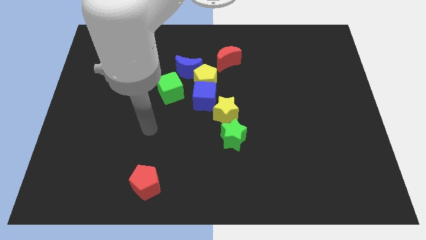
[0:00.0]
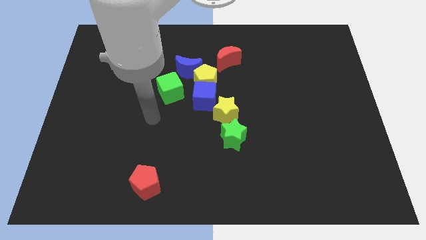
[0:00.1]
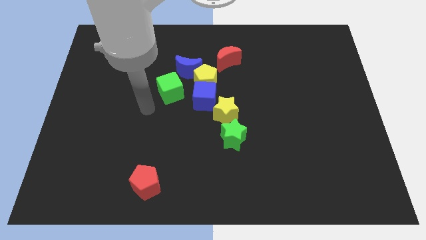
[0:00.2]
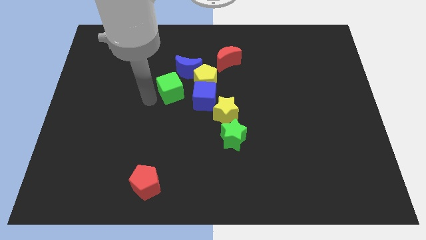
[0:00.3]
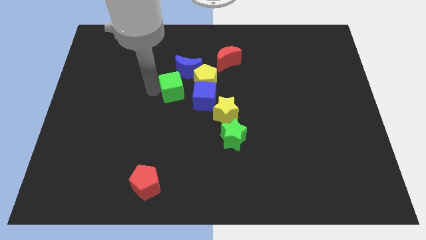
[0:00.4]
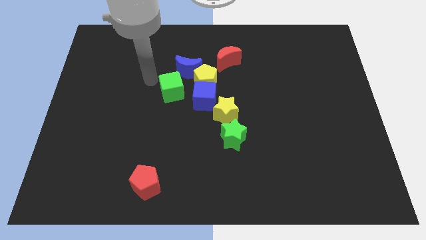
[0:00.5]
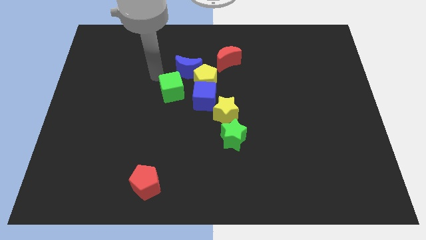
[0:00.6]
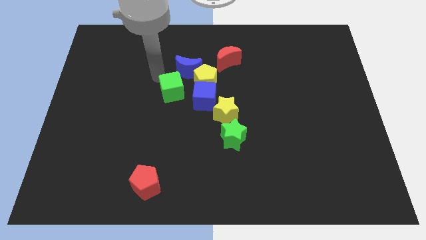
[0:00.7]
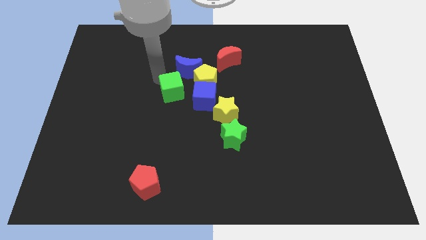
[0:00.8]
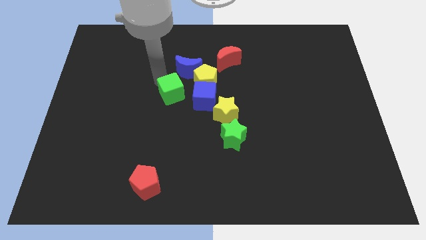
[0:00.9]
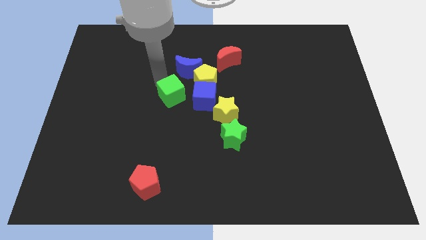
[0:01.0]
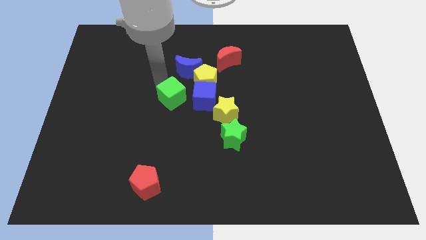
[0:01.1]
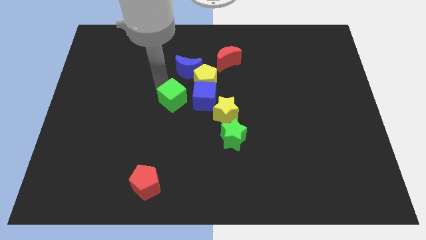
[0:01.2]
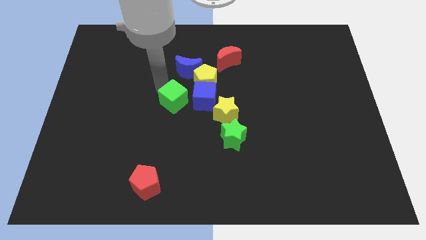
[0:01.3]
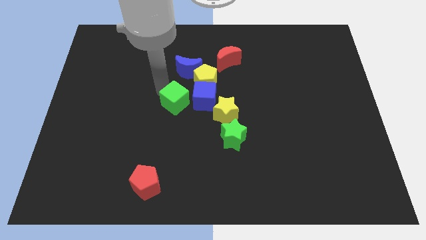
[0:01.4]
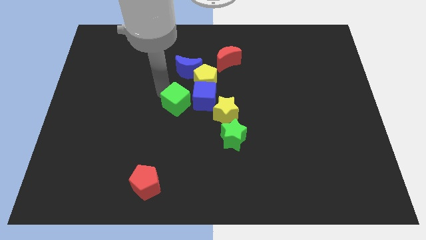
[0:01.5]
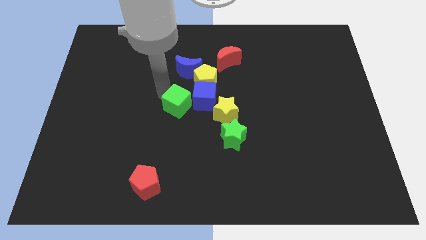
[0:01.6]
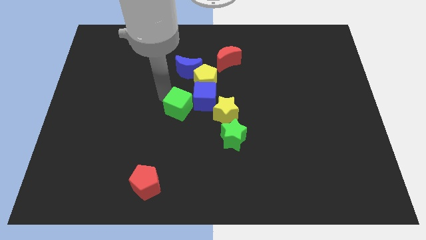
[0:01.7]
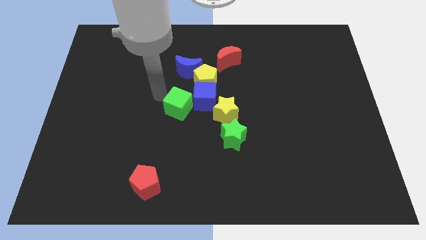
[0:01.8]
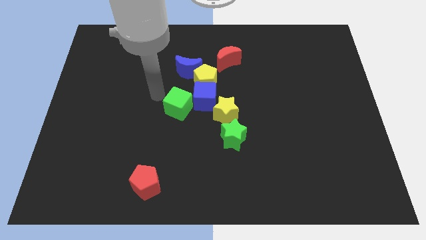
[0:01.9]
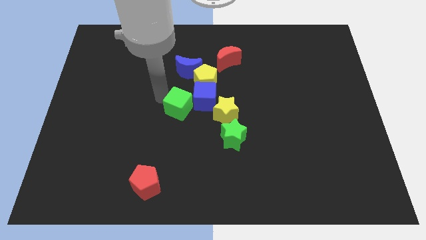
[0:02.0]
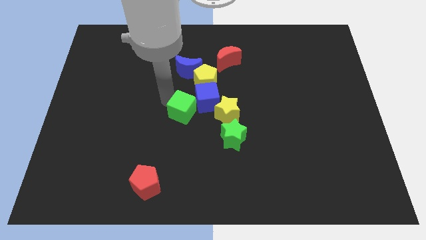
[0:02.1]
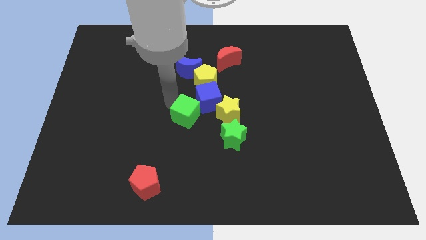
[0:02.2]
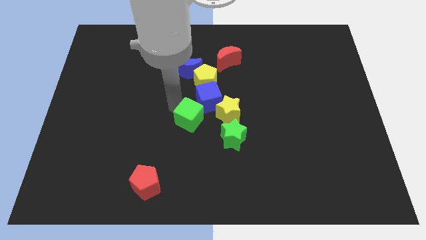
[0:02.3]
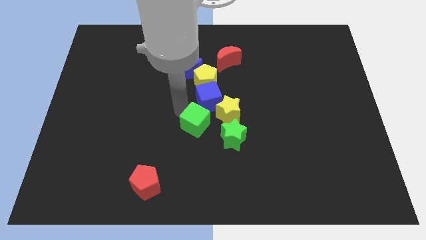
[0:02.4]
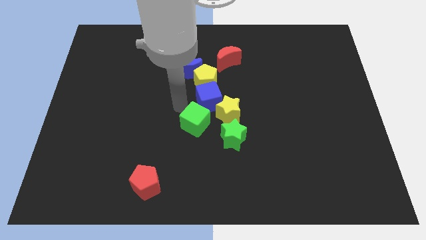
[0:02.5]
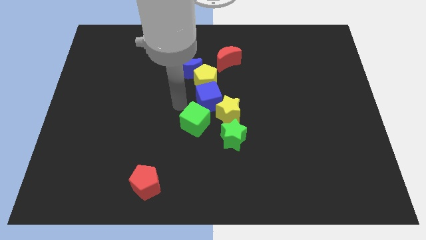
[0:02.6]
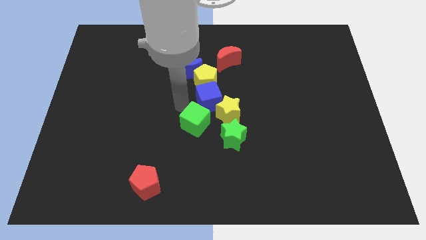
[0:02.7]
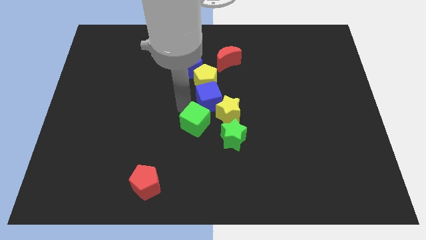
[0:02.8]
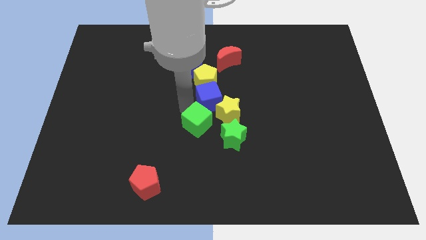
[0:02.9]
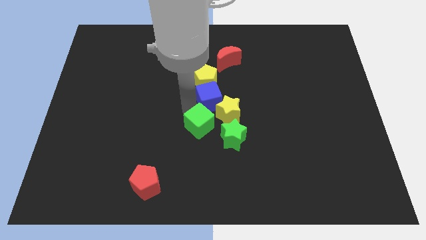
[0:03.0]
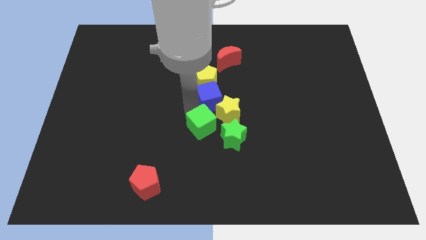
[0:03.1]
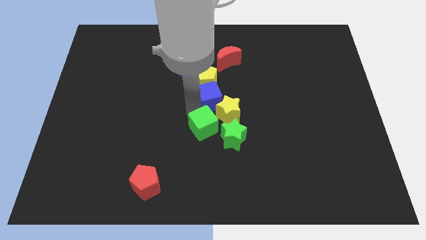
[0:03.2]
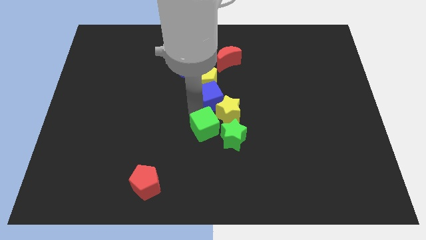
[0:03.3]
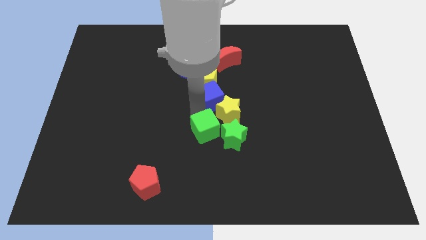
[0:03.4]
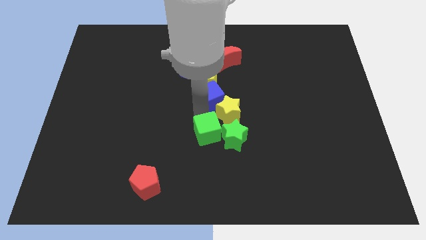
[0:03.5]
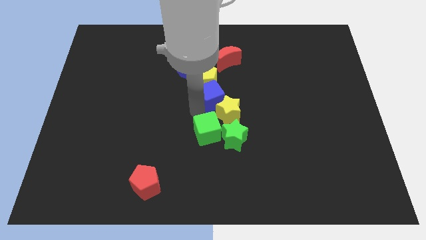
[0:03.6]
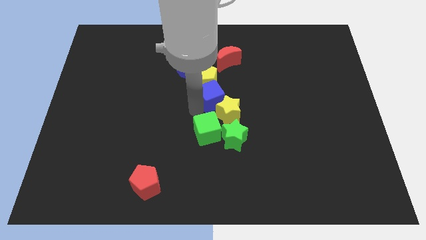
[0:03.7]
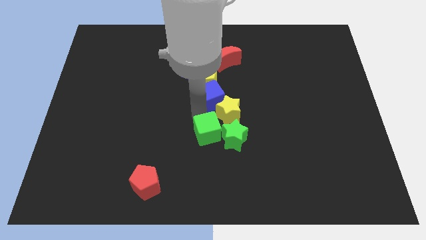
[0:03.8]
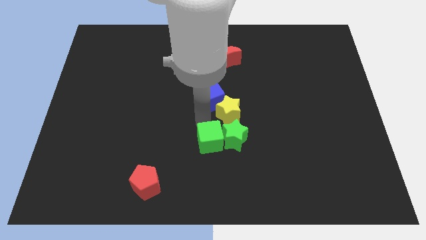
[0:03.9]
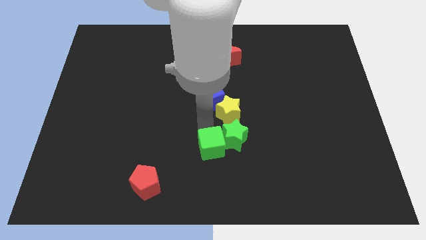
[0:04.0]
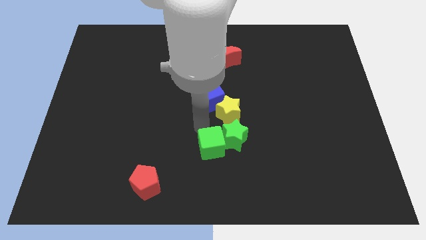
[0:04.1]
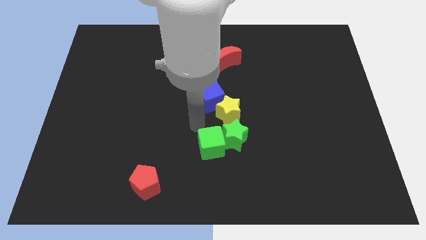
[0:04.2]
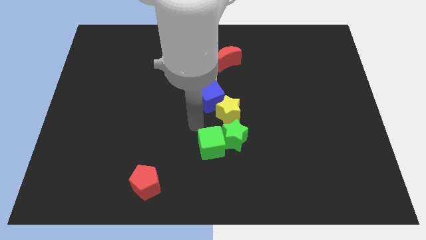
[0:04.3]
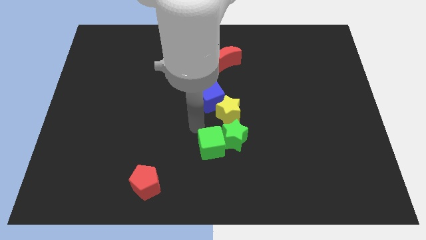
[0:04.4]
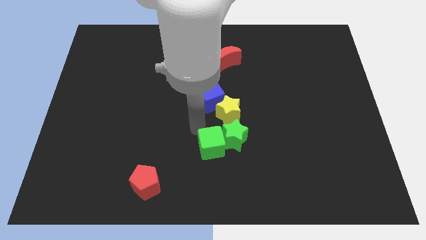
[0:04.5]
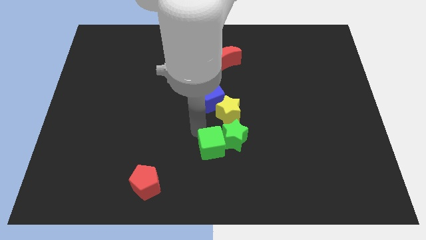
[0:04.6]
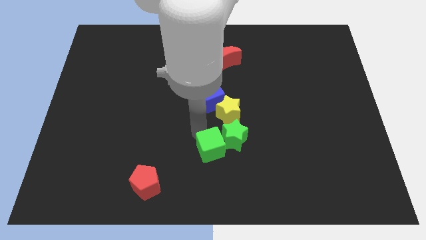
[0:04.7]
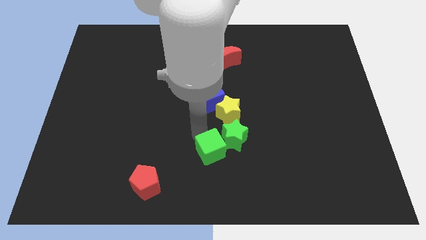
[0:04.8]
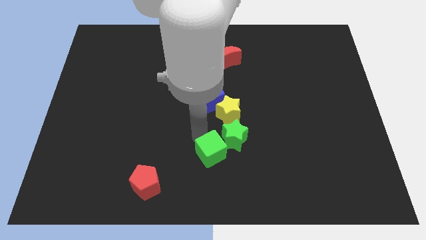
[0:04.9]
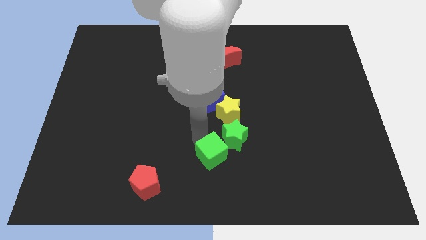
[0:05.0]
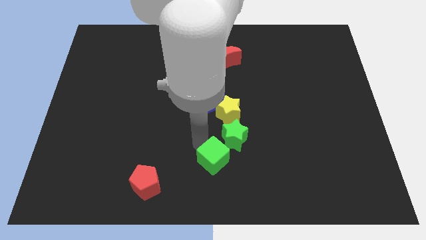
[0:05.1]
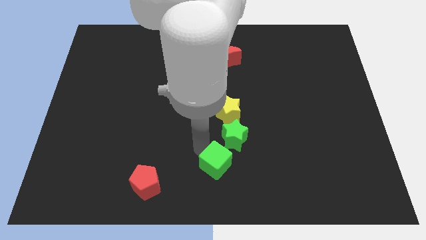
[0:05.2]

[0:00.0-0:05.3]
move the green cube downwards and then to the right

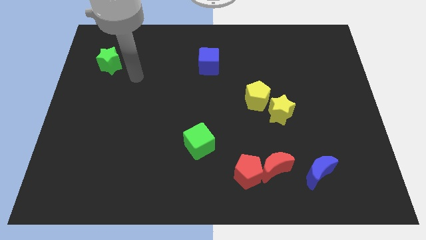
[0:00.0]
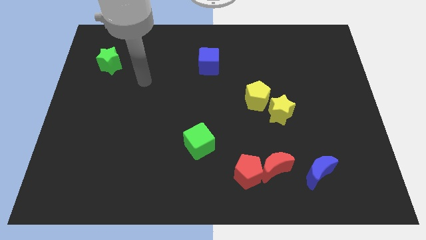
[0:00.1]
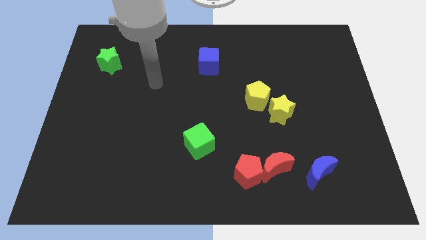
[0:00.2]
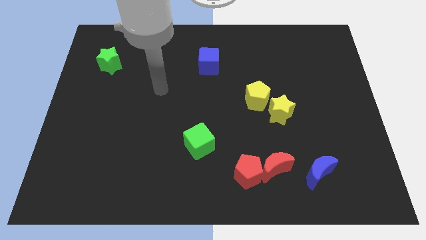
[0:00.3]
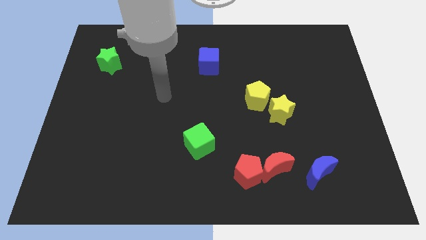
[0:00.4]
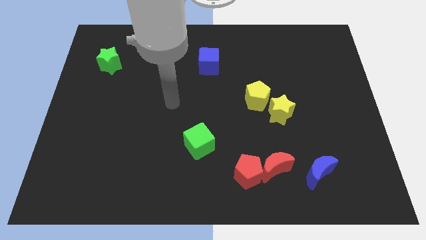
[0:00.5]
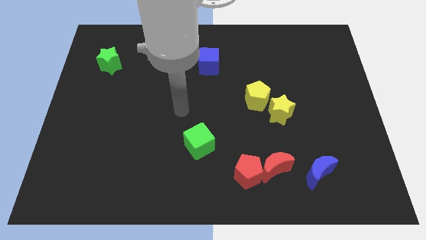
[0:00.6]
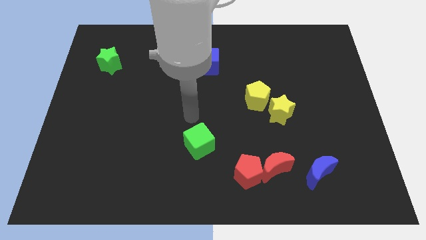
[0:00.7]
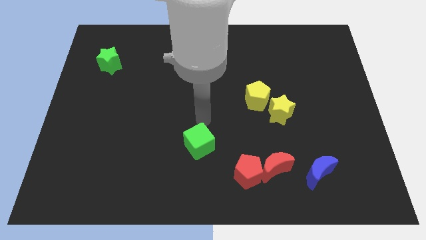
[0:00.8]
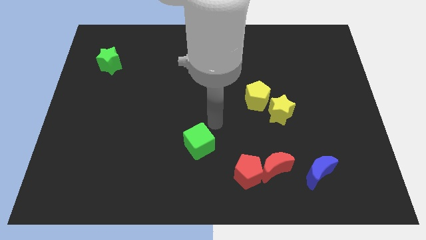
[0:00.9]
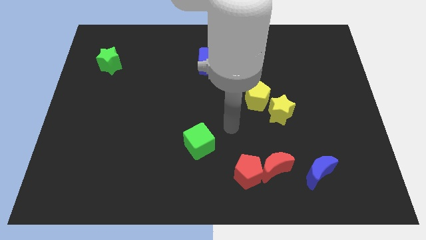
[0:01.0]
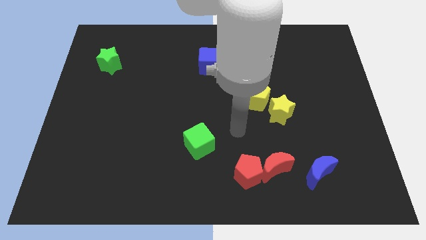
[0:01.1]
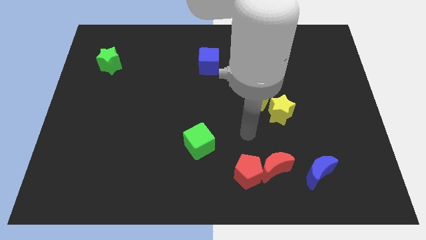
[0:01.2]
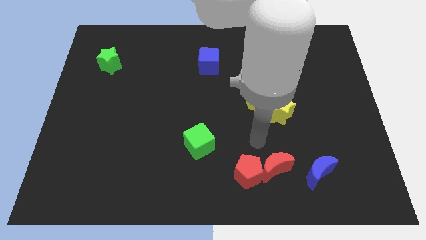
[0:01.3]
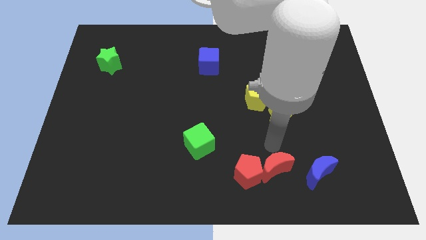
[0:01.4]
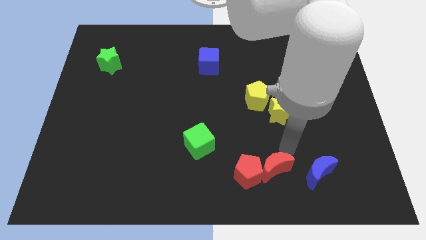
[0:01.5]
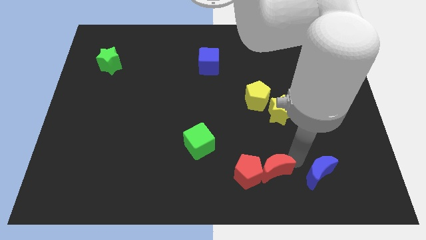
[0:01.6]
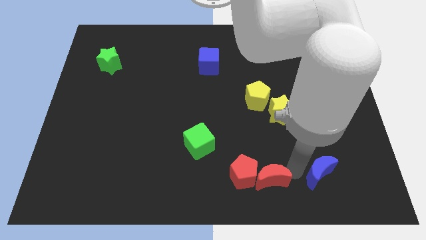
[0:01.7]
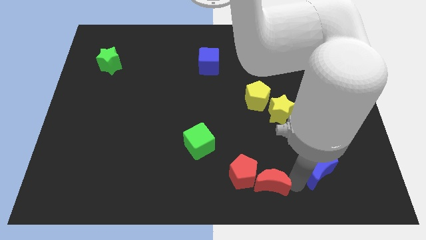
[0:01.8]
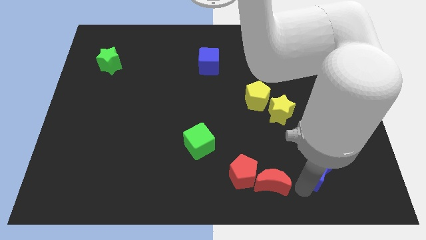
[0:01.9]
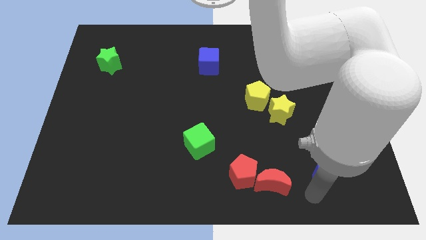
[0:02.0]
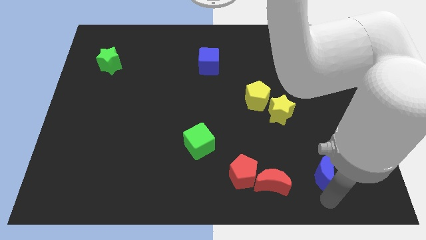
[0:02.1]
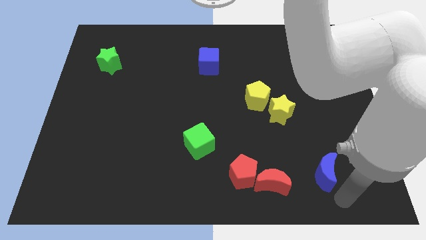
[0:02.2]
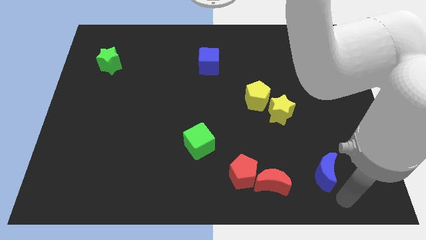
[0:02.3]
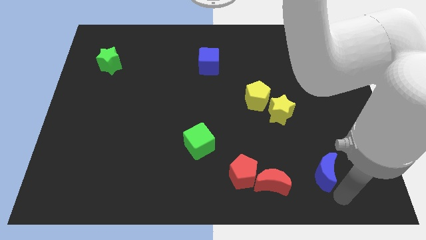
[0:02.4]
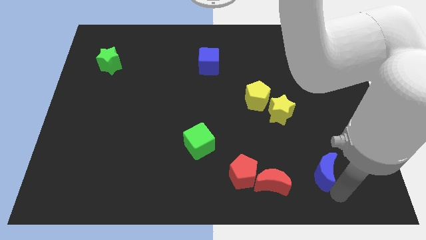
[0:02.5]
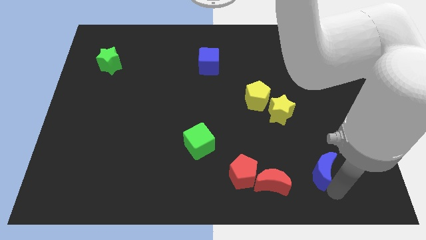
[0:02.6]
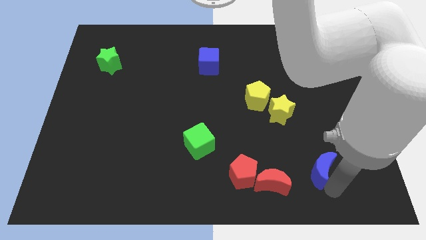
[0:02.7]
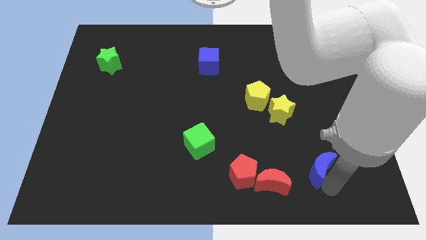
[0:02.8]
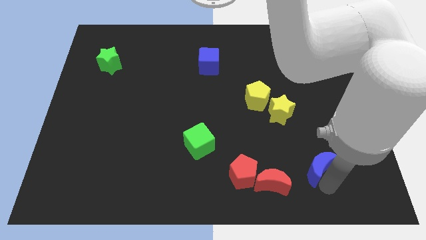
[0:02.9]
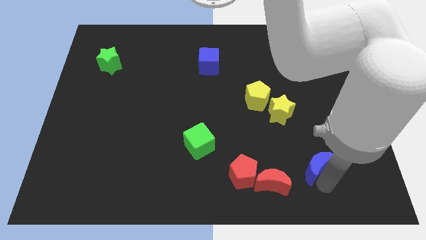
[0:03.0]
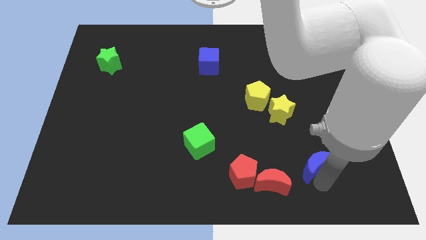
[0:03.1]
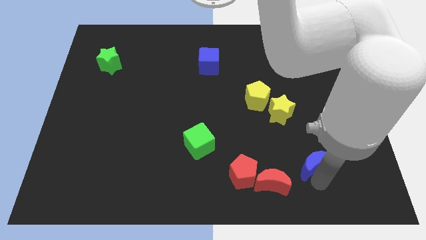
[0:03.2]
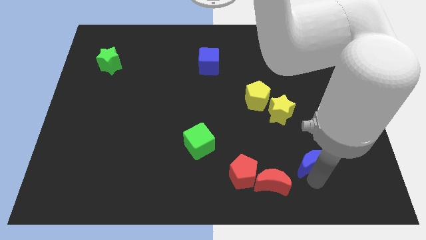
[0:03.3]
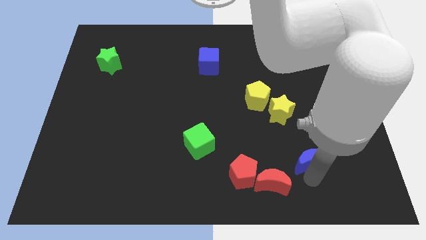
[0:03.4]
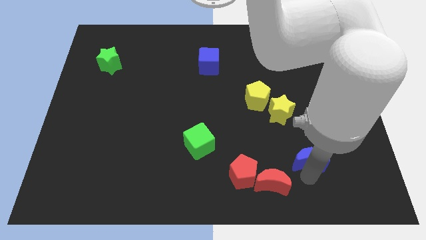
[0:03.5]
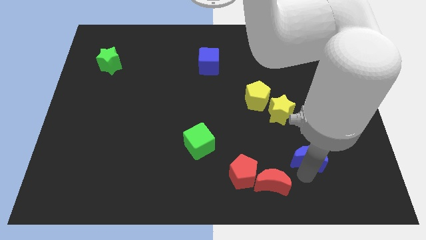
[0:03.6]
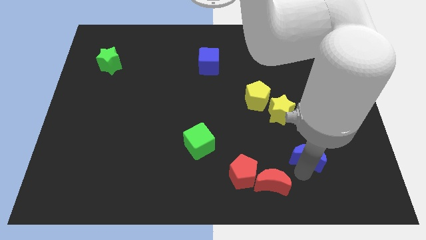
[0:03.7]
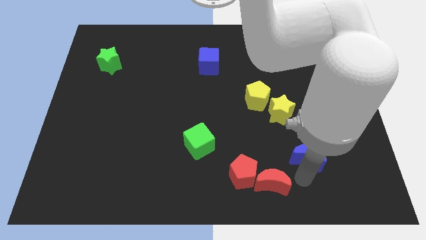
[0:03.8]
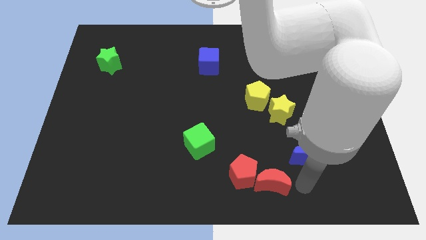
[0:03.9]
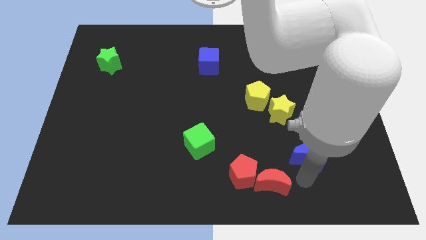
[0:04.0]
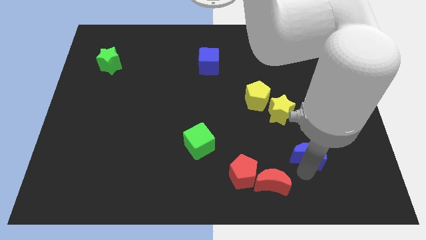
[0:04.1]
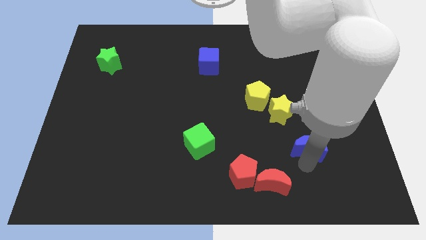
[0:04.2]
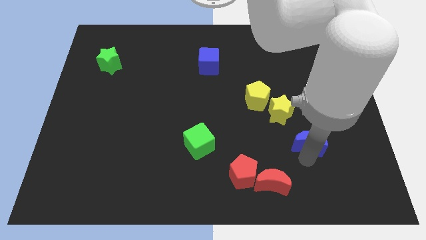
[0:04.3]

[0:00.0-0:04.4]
slightly slide the blue moon upwards
